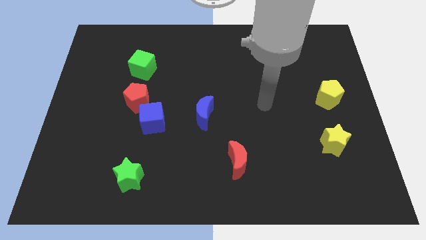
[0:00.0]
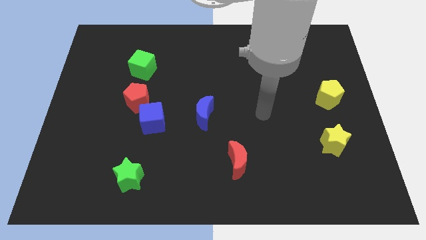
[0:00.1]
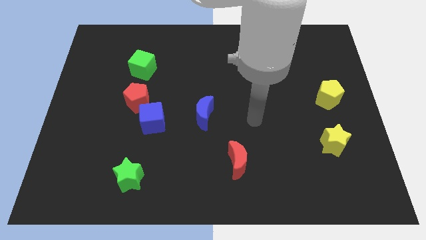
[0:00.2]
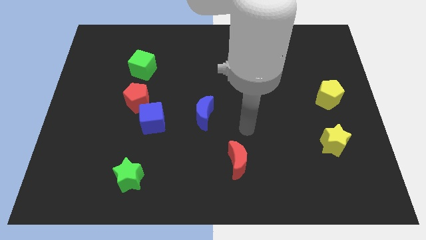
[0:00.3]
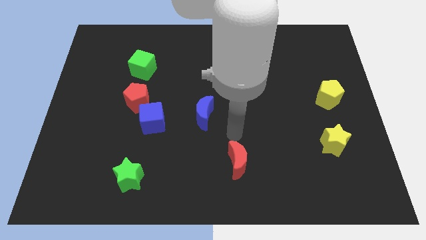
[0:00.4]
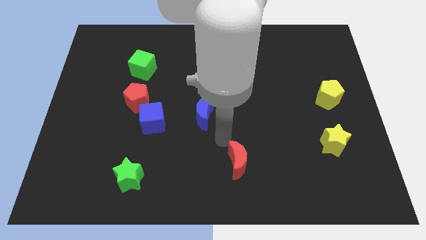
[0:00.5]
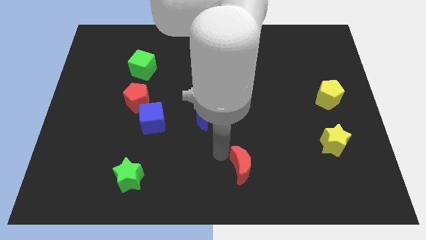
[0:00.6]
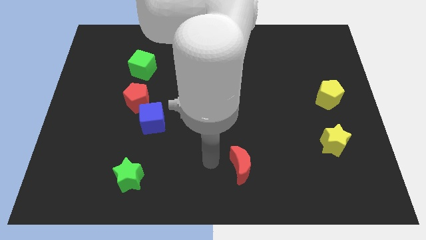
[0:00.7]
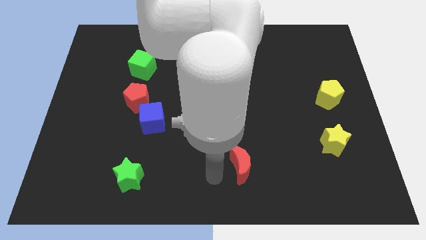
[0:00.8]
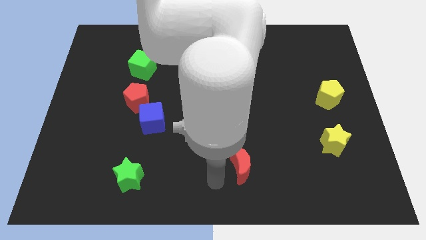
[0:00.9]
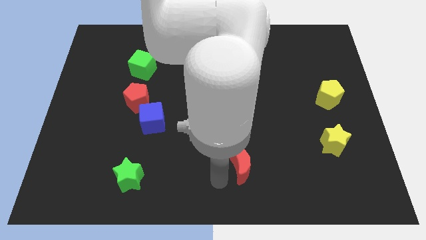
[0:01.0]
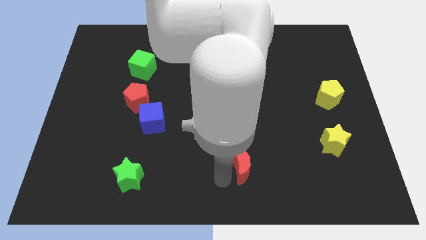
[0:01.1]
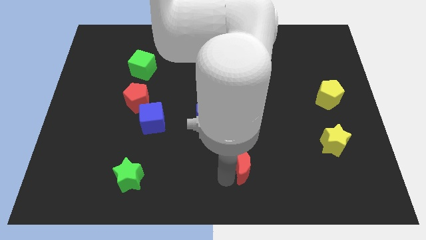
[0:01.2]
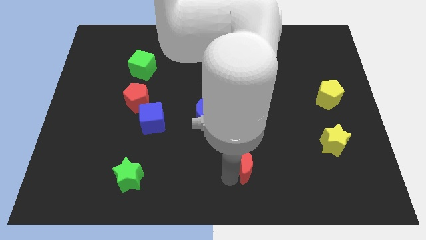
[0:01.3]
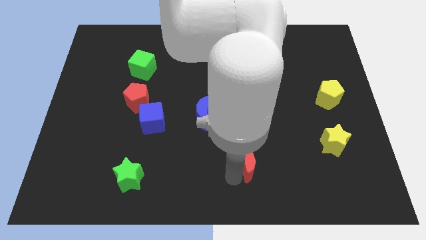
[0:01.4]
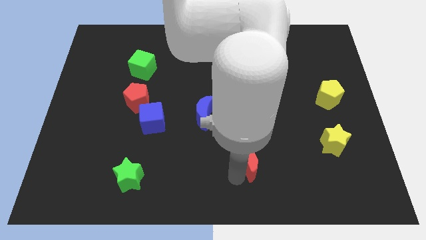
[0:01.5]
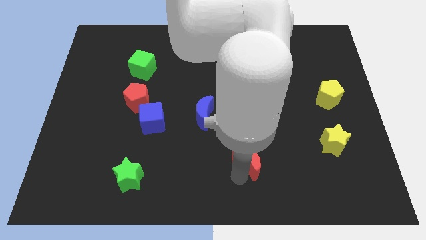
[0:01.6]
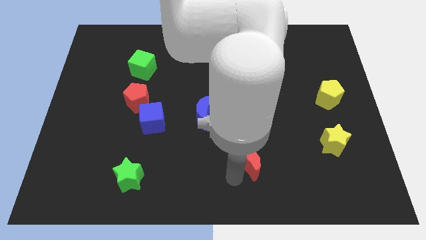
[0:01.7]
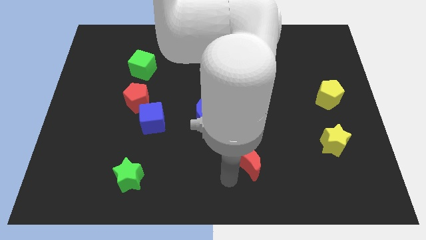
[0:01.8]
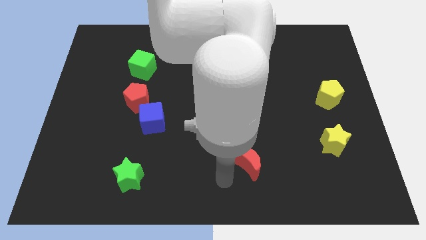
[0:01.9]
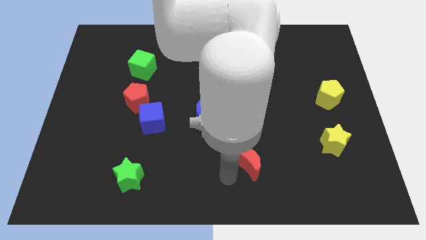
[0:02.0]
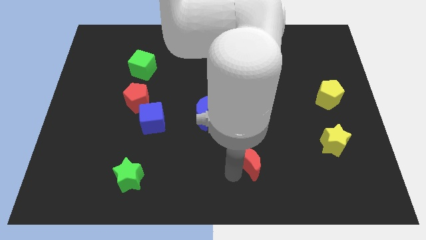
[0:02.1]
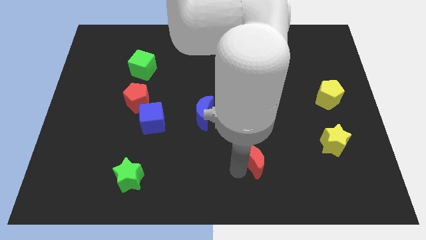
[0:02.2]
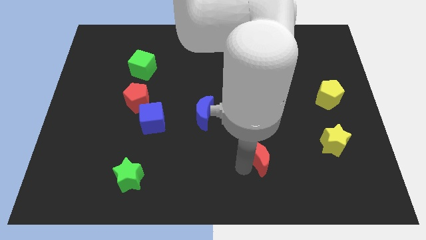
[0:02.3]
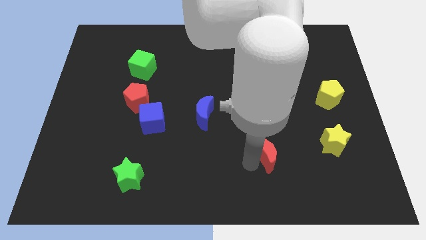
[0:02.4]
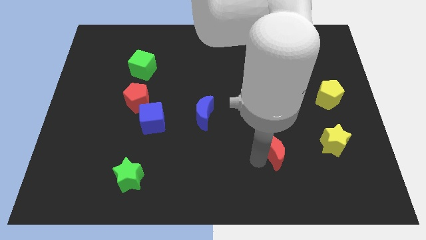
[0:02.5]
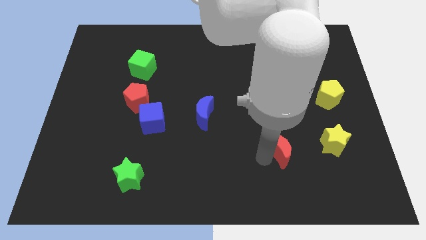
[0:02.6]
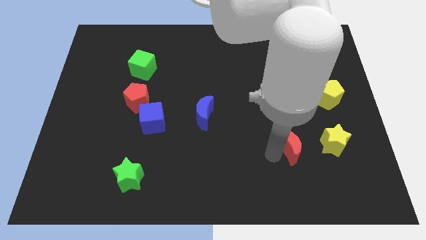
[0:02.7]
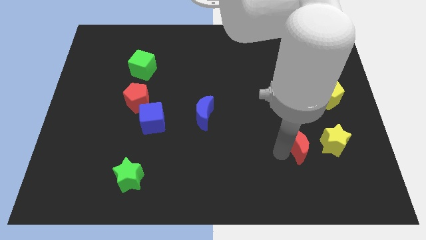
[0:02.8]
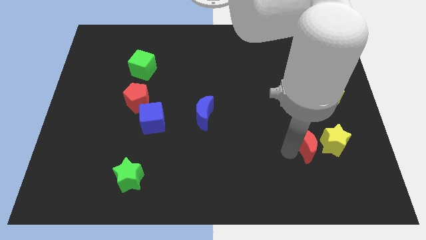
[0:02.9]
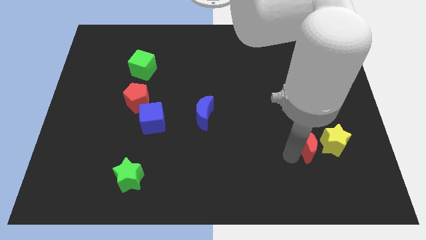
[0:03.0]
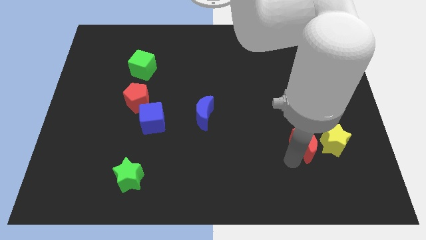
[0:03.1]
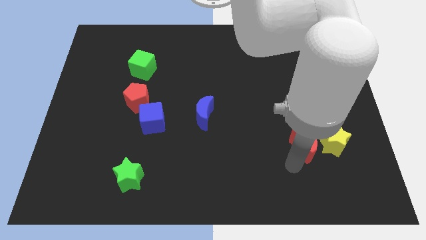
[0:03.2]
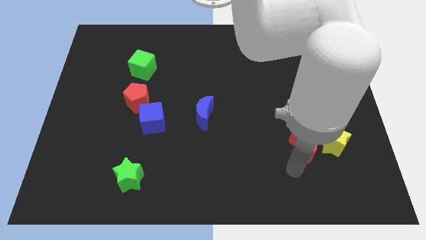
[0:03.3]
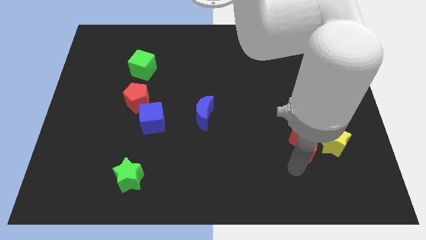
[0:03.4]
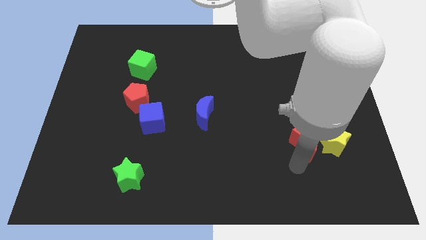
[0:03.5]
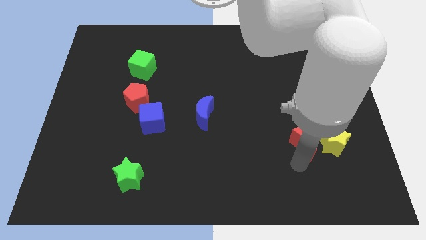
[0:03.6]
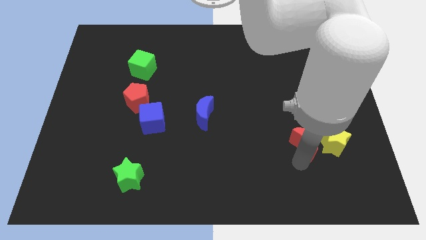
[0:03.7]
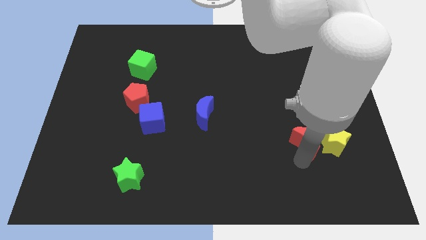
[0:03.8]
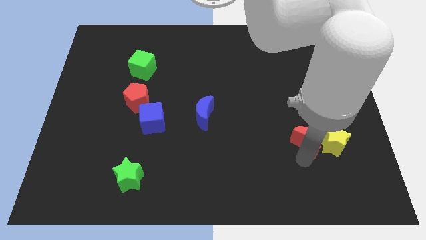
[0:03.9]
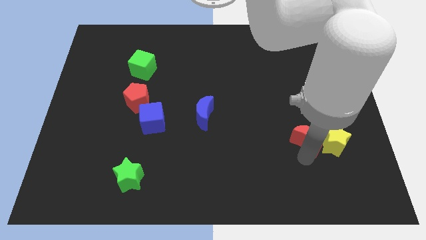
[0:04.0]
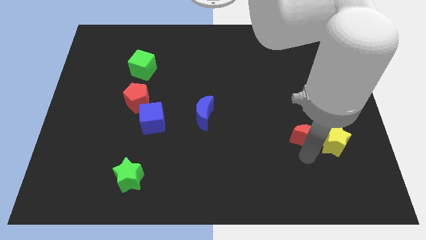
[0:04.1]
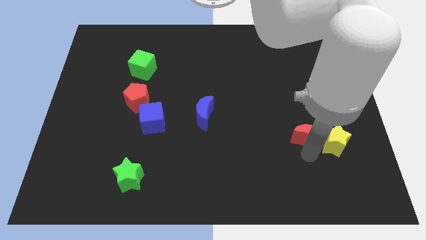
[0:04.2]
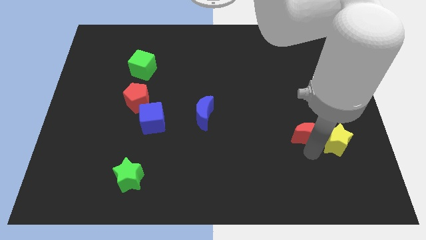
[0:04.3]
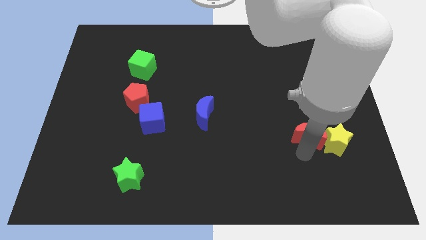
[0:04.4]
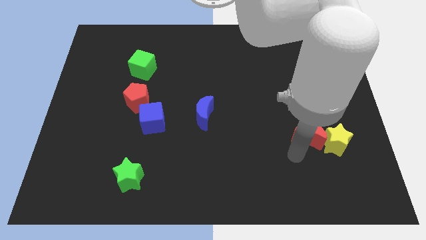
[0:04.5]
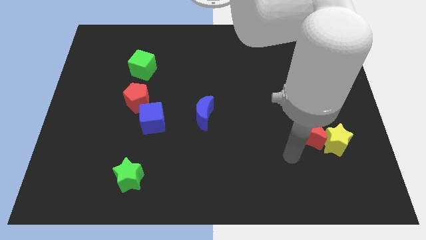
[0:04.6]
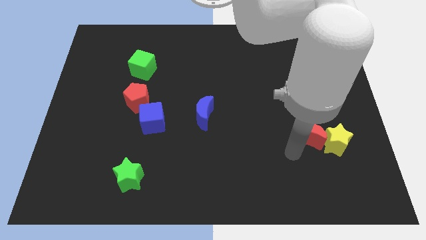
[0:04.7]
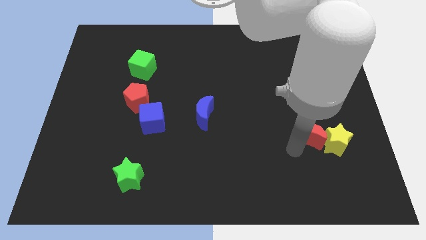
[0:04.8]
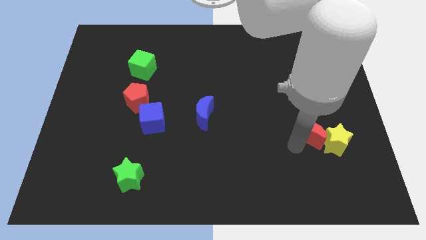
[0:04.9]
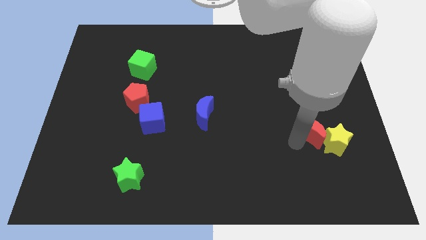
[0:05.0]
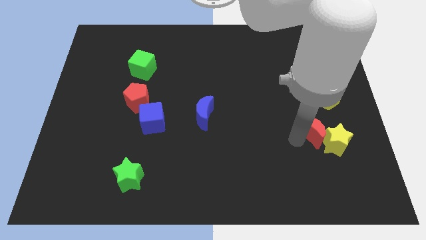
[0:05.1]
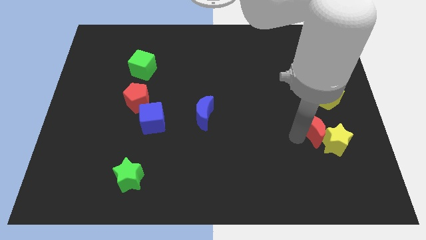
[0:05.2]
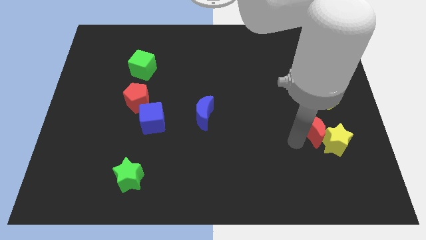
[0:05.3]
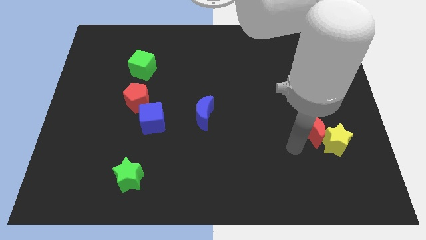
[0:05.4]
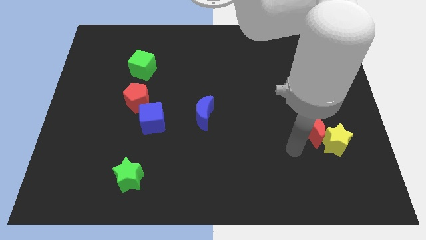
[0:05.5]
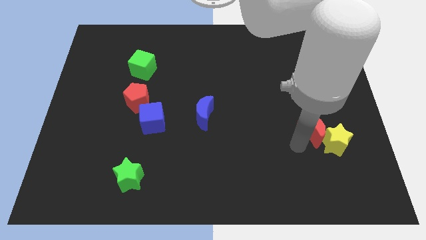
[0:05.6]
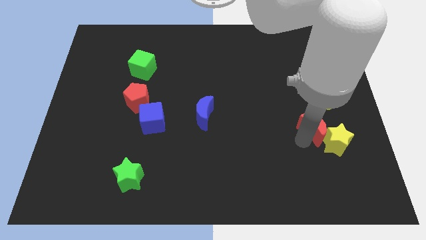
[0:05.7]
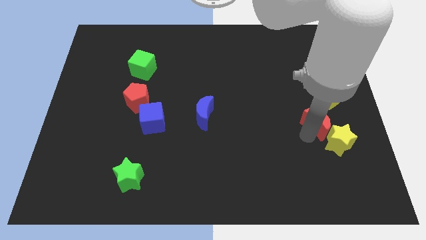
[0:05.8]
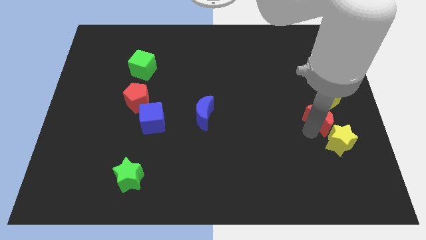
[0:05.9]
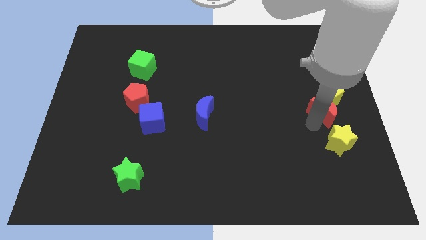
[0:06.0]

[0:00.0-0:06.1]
push the red moon to the center right
